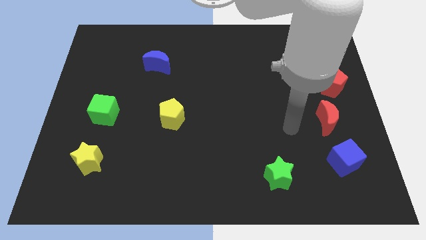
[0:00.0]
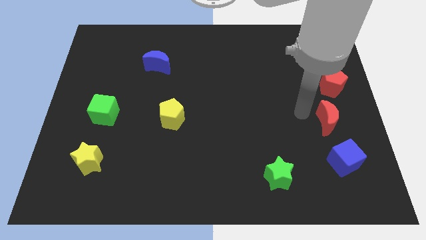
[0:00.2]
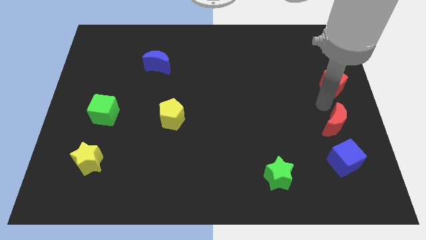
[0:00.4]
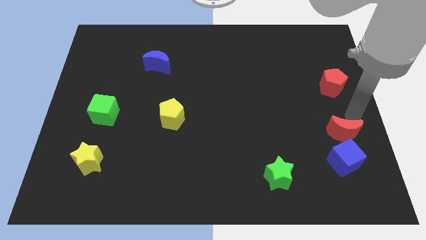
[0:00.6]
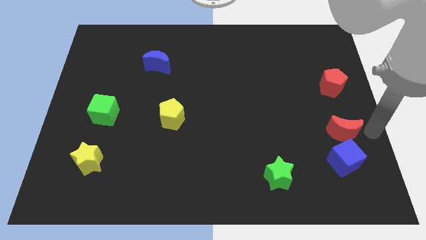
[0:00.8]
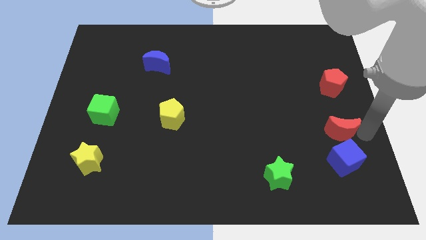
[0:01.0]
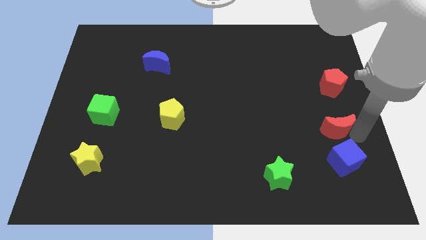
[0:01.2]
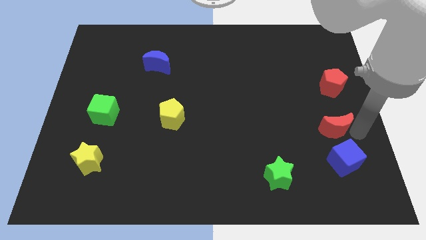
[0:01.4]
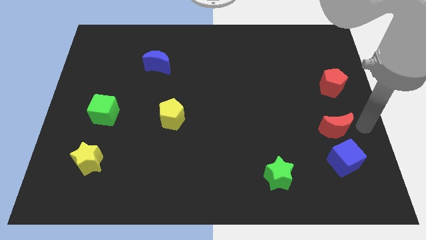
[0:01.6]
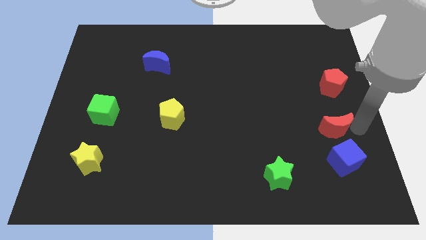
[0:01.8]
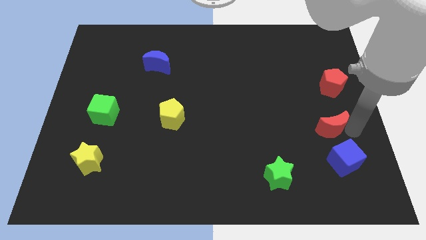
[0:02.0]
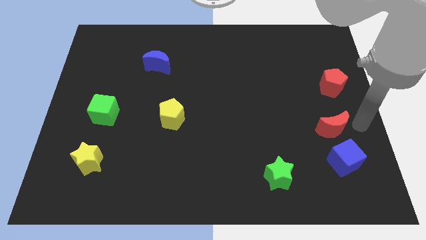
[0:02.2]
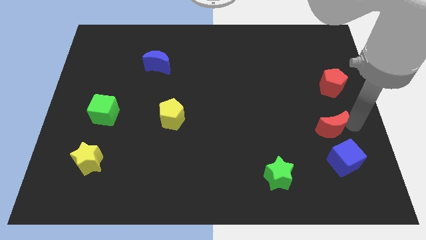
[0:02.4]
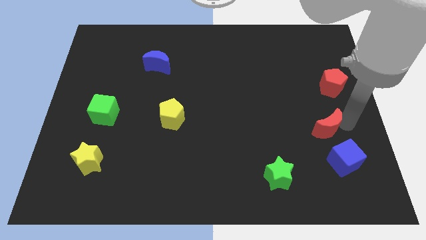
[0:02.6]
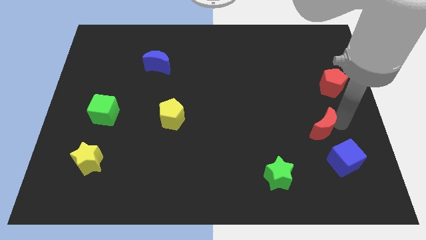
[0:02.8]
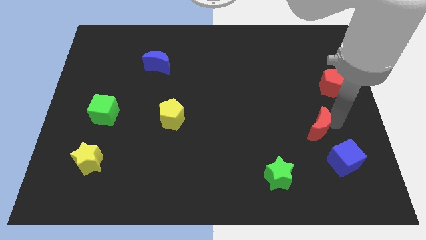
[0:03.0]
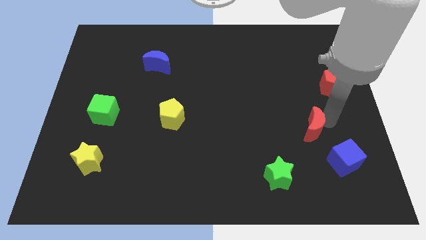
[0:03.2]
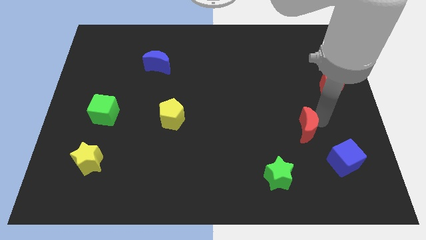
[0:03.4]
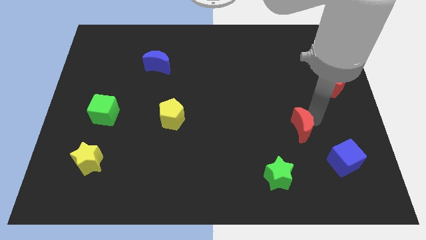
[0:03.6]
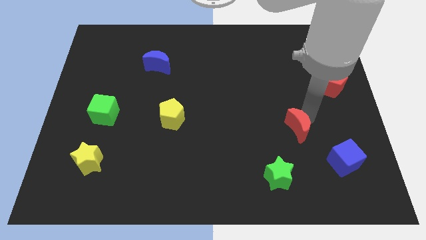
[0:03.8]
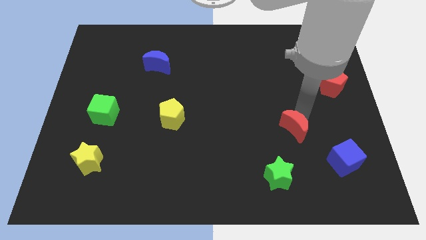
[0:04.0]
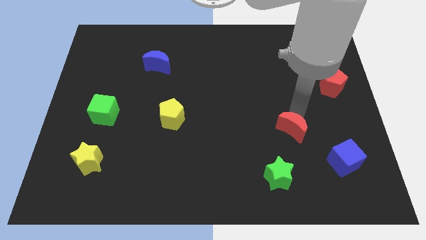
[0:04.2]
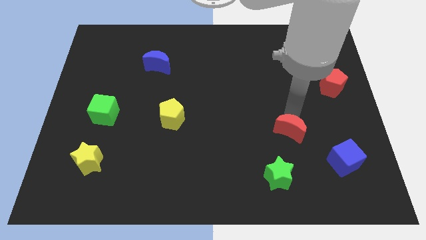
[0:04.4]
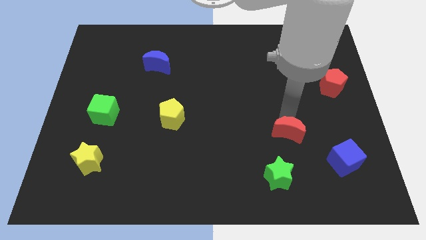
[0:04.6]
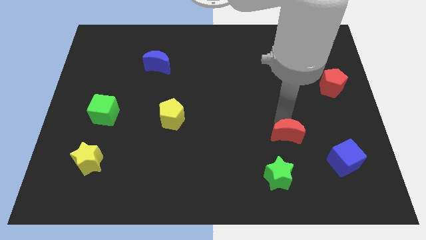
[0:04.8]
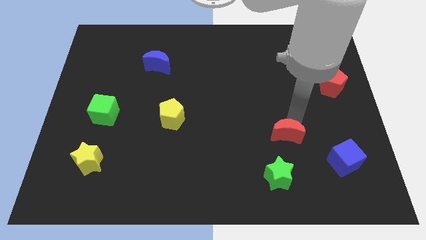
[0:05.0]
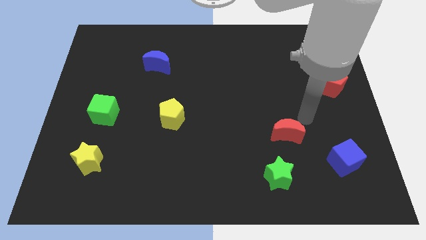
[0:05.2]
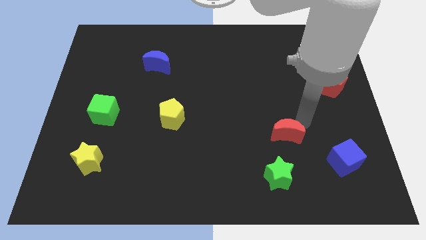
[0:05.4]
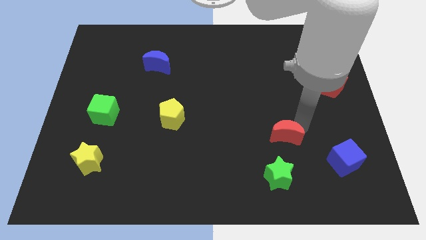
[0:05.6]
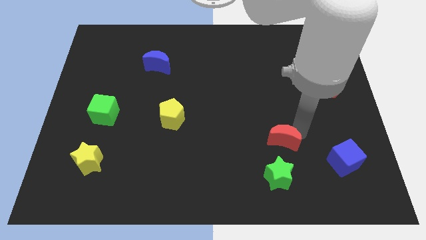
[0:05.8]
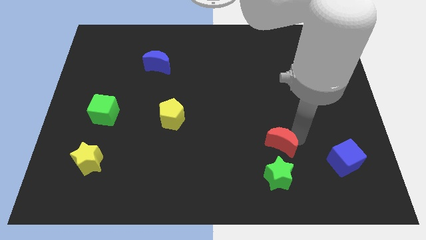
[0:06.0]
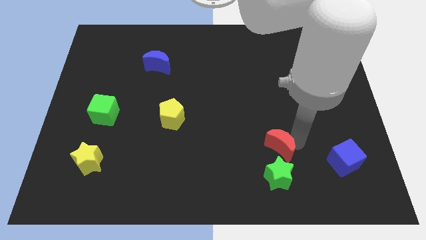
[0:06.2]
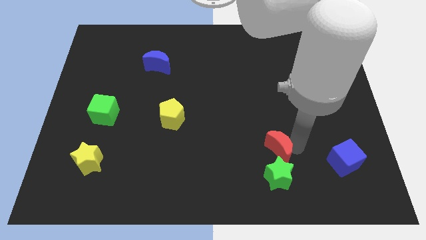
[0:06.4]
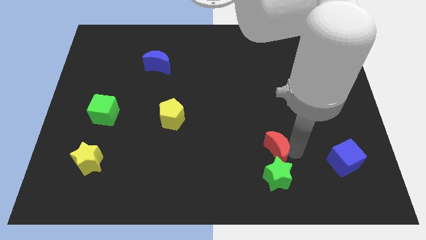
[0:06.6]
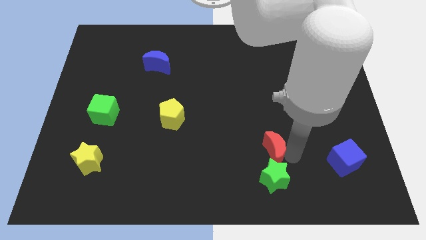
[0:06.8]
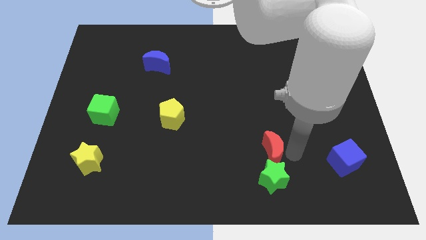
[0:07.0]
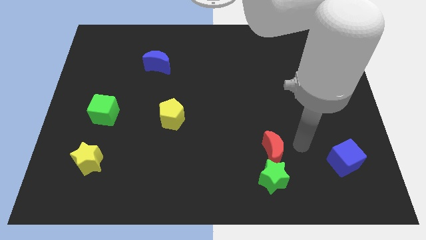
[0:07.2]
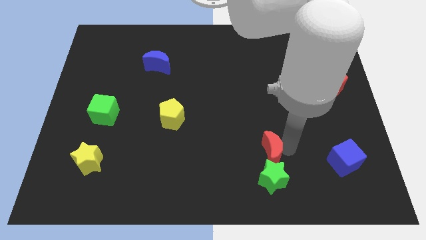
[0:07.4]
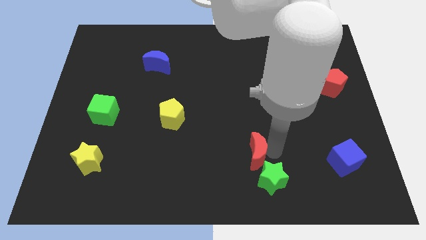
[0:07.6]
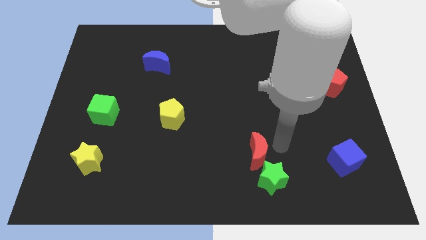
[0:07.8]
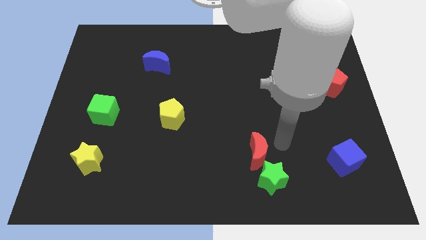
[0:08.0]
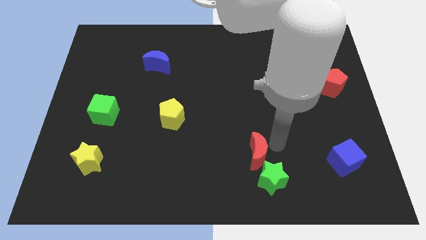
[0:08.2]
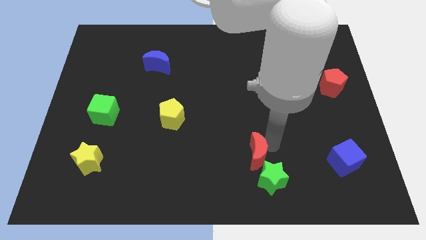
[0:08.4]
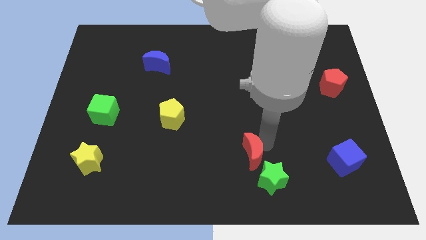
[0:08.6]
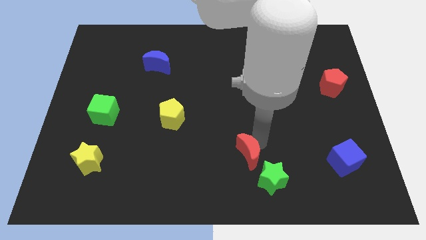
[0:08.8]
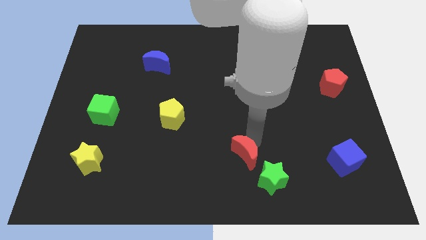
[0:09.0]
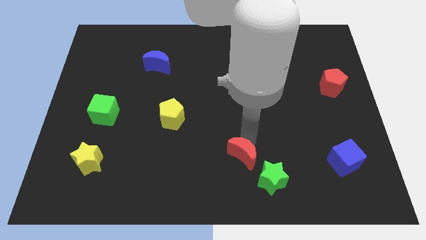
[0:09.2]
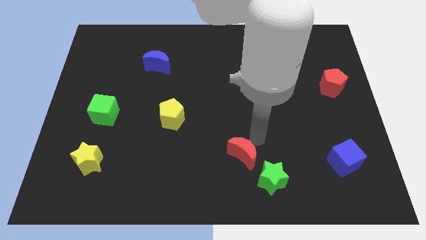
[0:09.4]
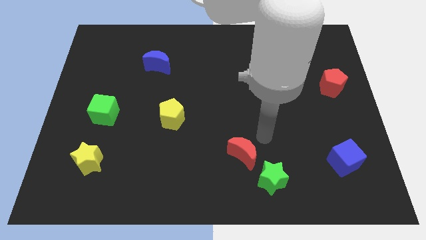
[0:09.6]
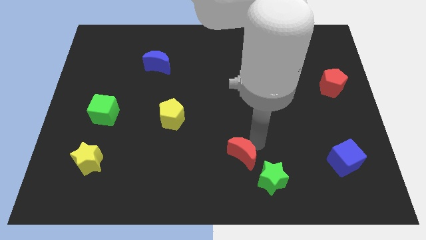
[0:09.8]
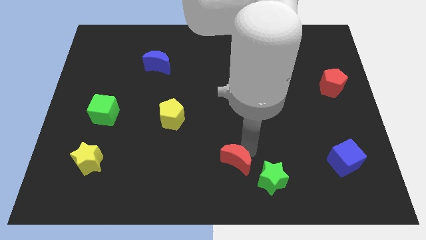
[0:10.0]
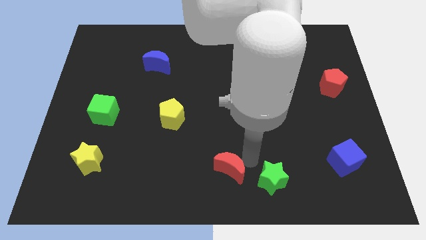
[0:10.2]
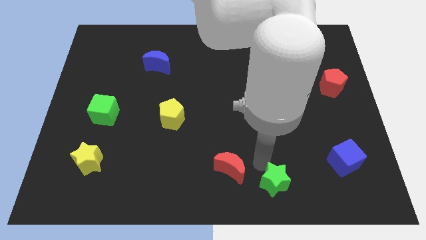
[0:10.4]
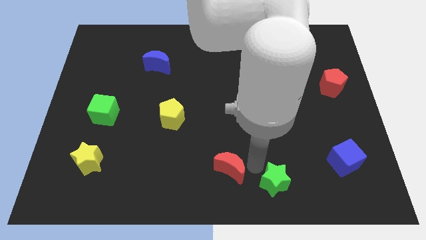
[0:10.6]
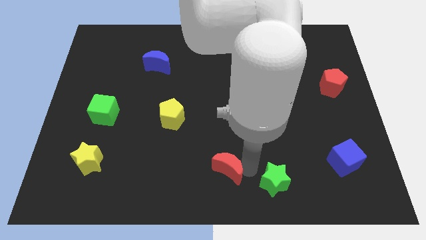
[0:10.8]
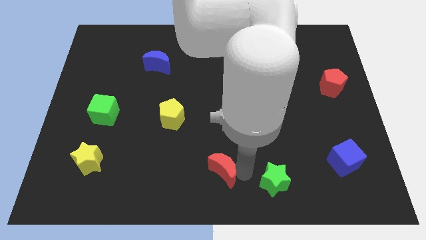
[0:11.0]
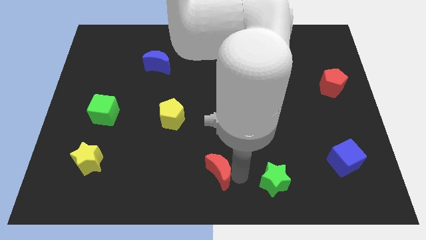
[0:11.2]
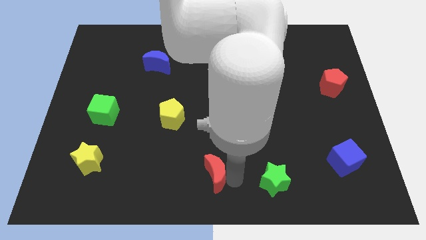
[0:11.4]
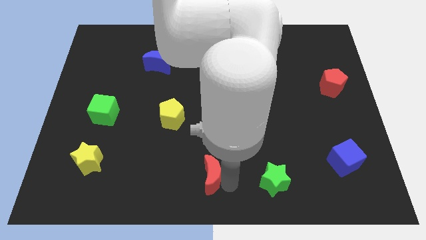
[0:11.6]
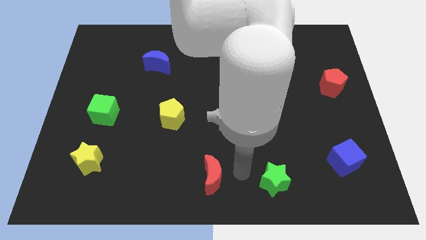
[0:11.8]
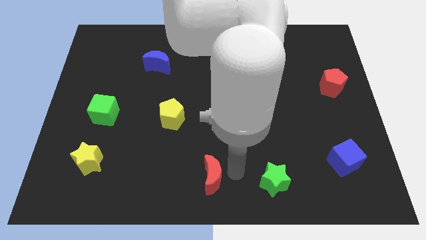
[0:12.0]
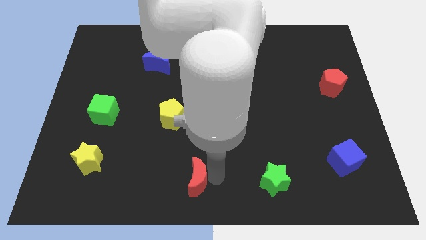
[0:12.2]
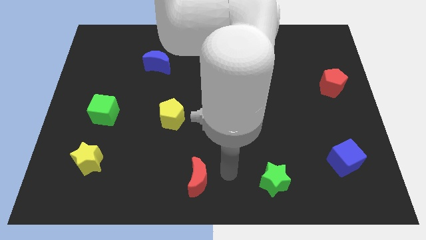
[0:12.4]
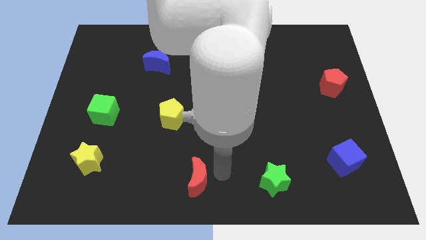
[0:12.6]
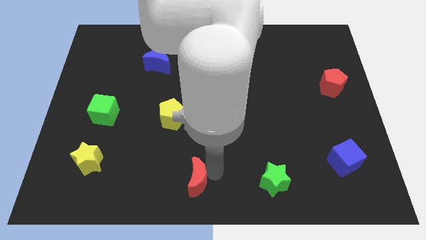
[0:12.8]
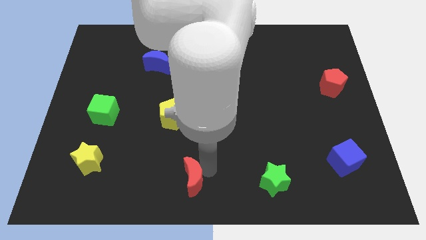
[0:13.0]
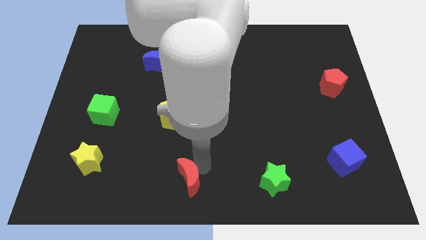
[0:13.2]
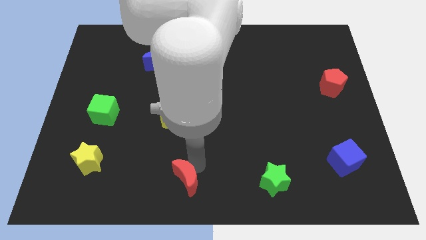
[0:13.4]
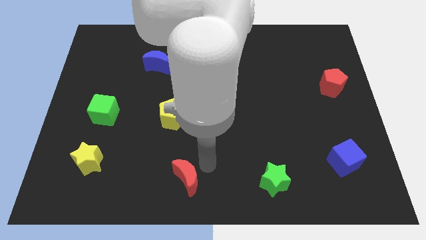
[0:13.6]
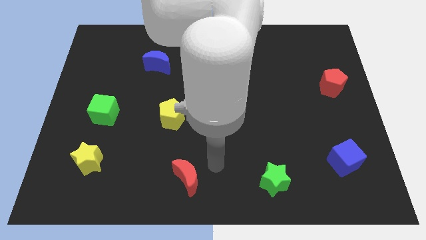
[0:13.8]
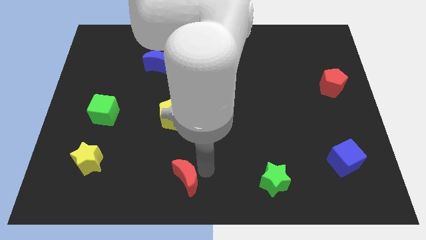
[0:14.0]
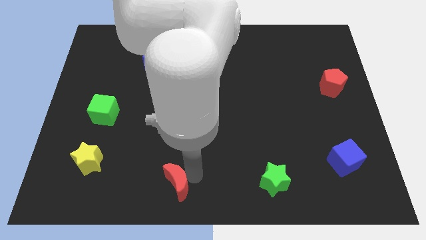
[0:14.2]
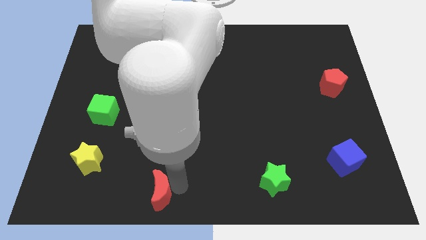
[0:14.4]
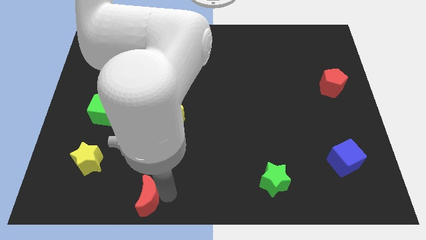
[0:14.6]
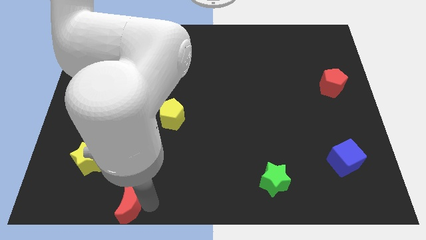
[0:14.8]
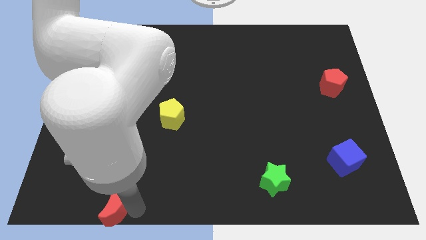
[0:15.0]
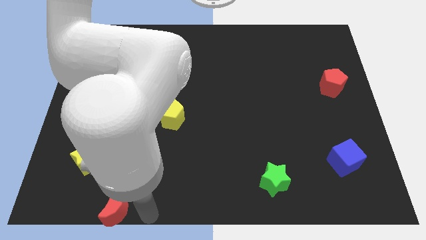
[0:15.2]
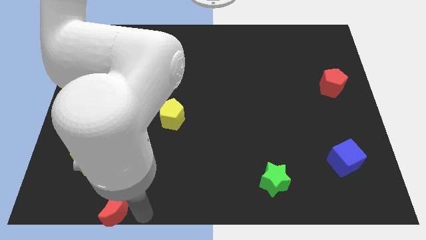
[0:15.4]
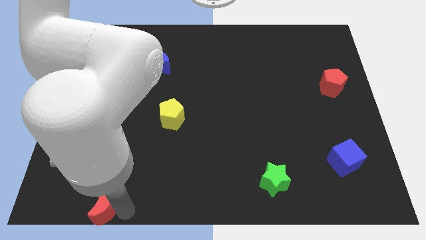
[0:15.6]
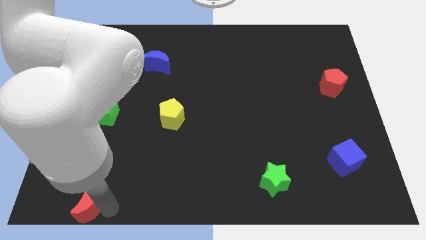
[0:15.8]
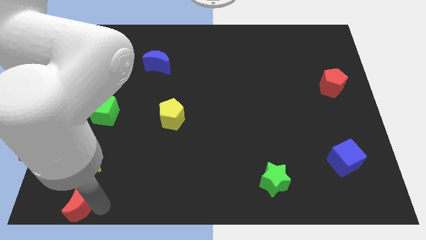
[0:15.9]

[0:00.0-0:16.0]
put the red moon to the bottom left corner
